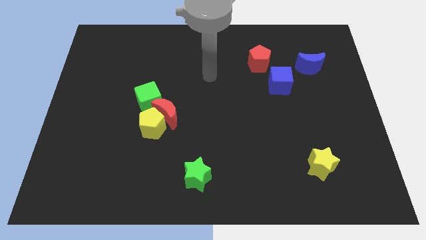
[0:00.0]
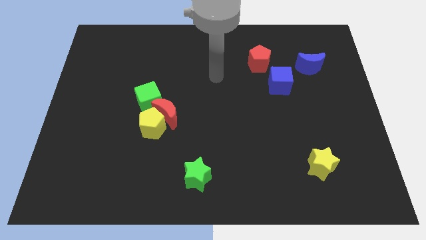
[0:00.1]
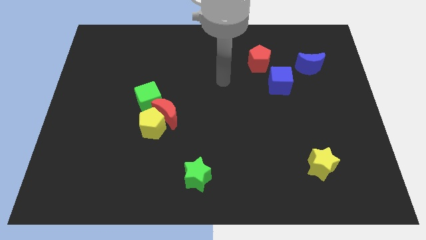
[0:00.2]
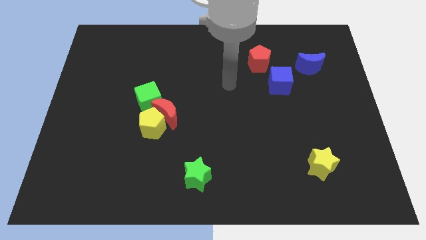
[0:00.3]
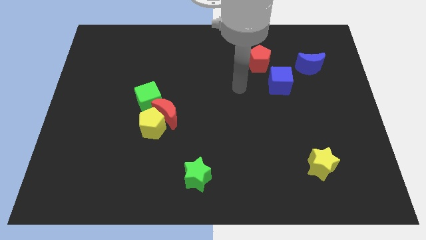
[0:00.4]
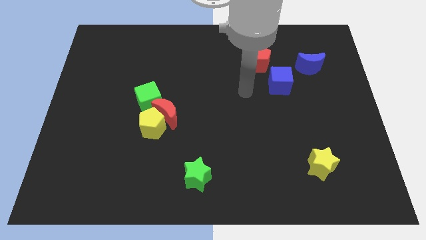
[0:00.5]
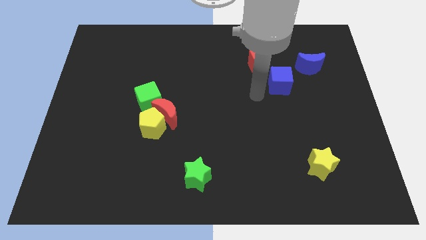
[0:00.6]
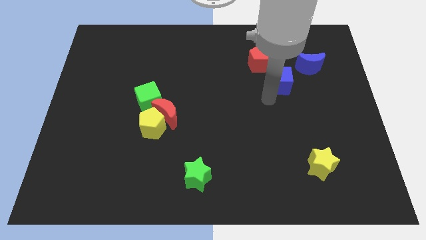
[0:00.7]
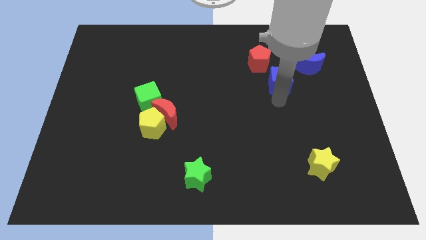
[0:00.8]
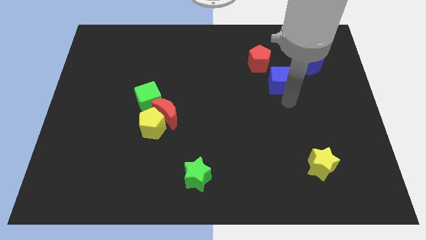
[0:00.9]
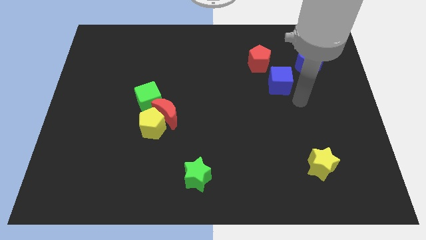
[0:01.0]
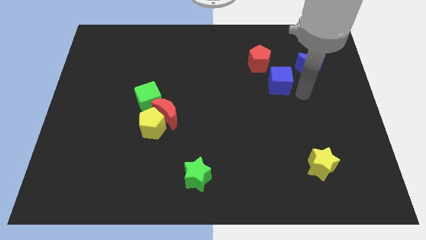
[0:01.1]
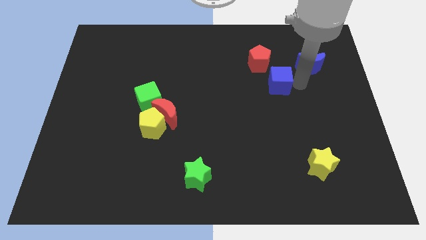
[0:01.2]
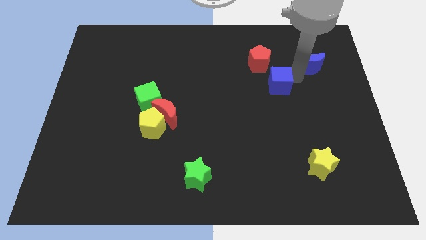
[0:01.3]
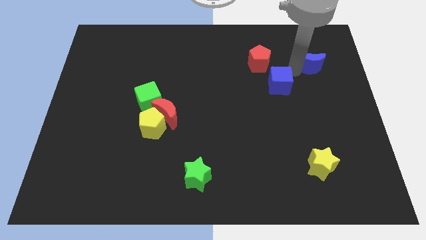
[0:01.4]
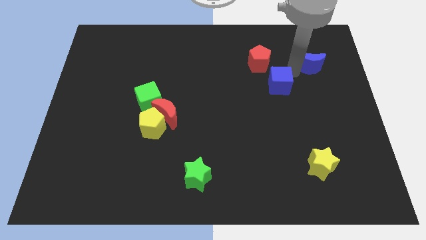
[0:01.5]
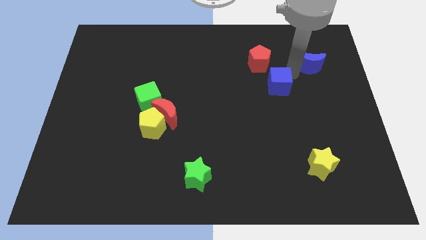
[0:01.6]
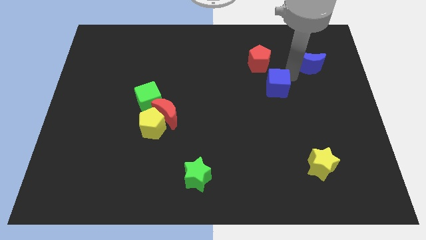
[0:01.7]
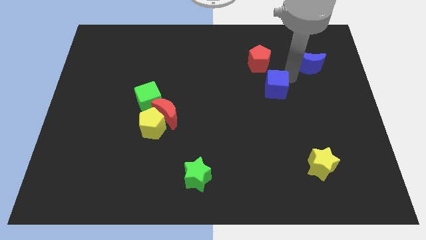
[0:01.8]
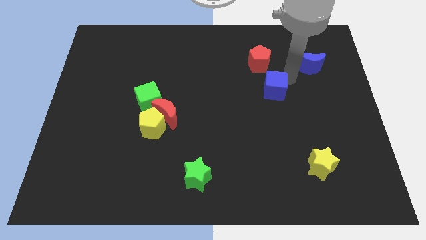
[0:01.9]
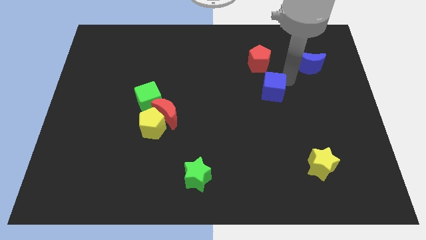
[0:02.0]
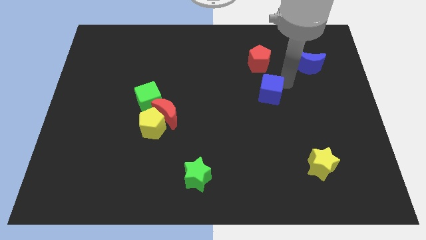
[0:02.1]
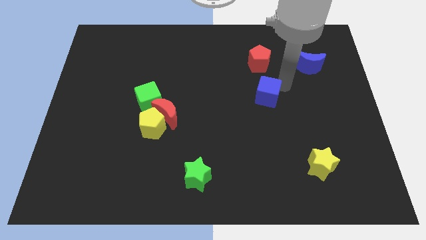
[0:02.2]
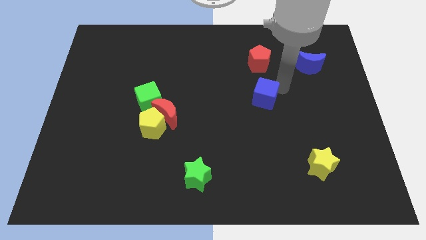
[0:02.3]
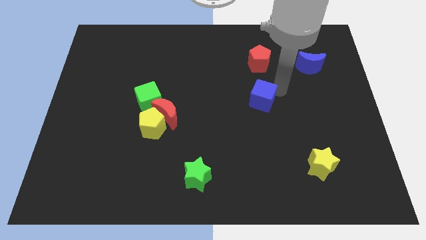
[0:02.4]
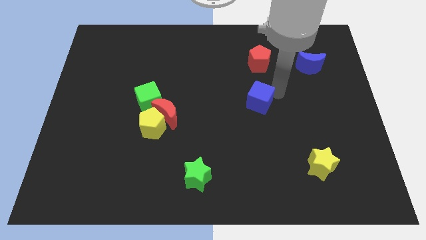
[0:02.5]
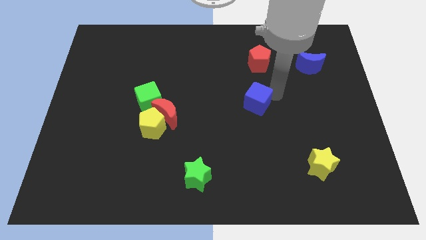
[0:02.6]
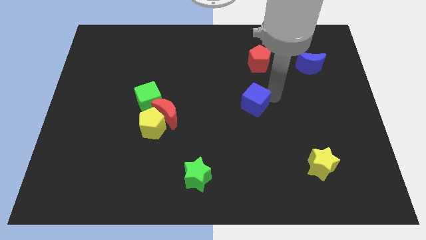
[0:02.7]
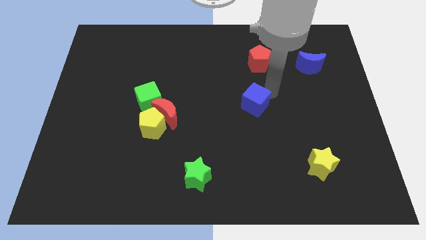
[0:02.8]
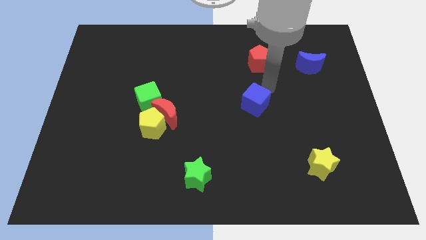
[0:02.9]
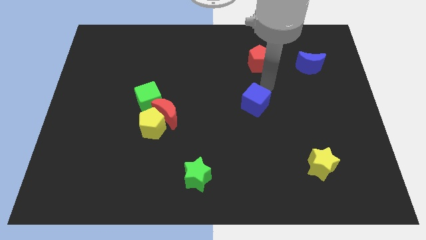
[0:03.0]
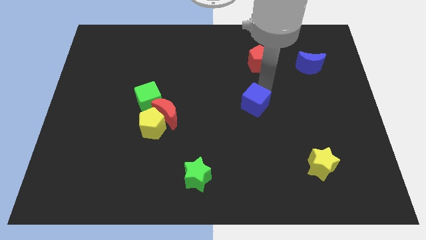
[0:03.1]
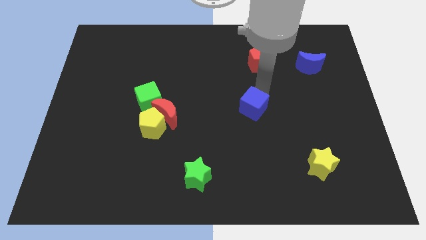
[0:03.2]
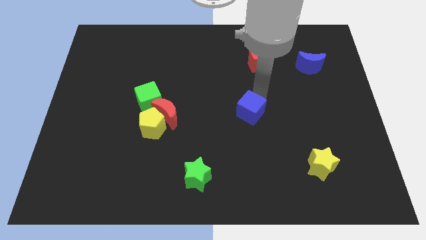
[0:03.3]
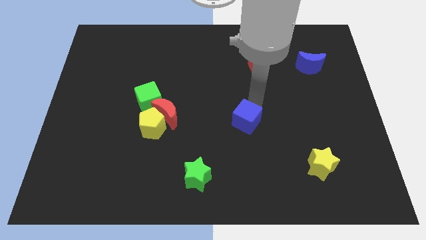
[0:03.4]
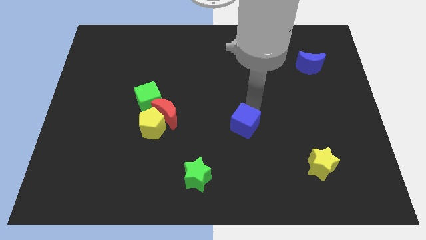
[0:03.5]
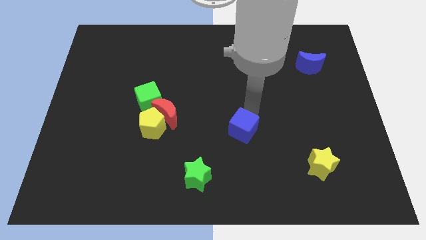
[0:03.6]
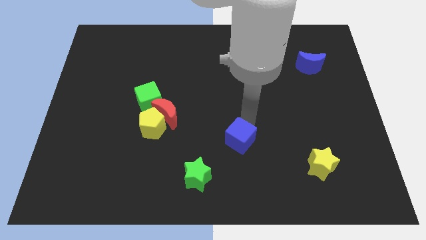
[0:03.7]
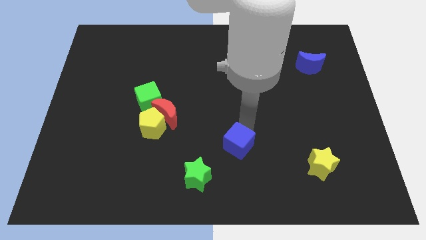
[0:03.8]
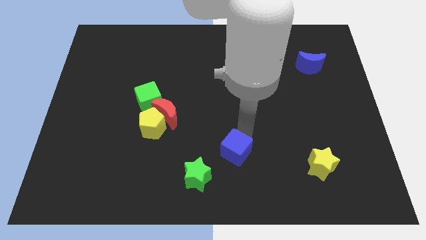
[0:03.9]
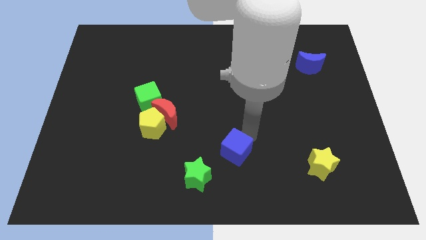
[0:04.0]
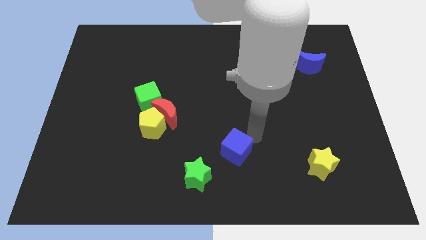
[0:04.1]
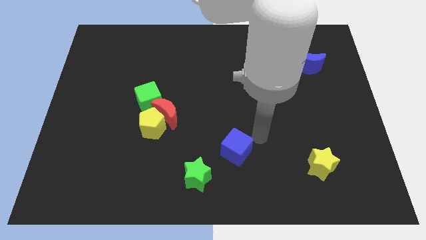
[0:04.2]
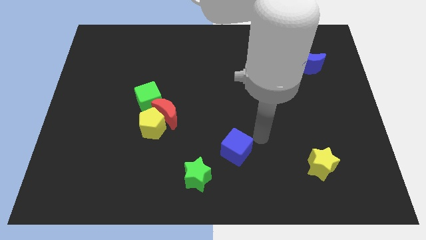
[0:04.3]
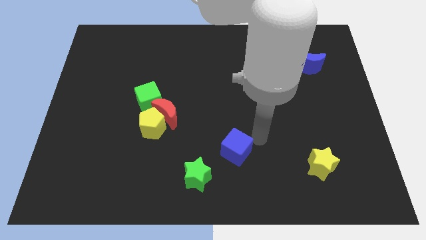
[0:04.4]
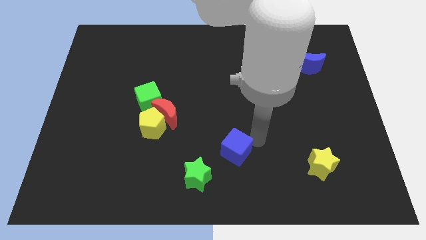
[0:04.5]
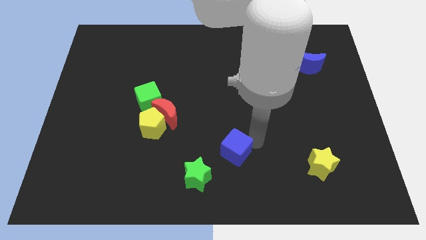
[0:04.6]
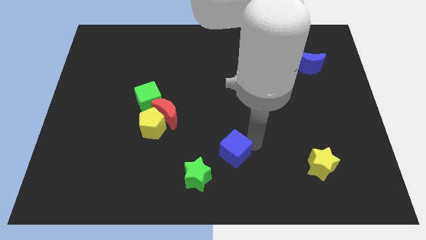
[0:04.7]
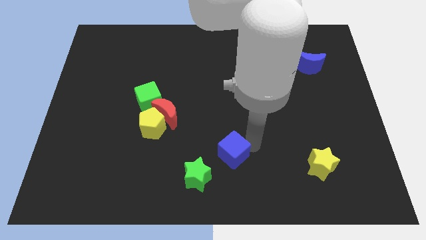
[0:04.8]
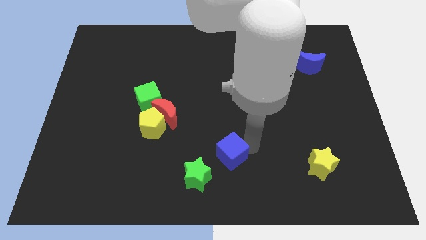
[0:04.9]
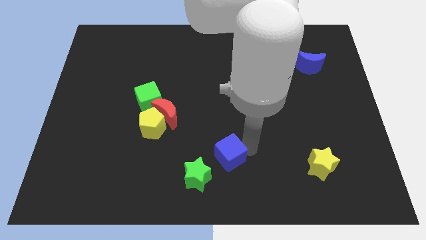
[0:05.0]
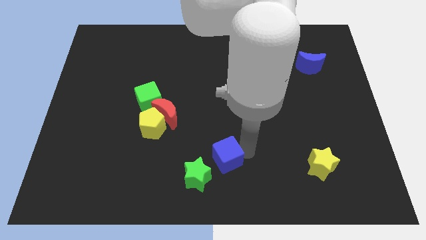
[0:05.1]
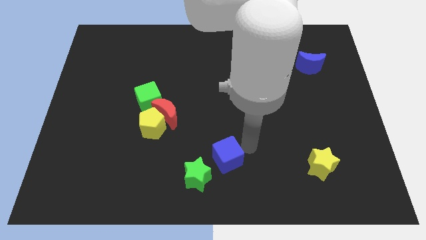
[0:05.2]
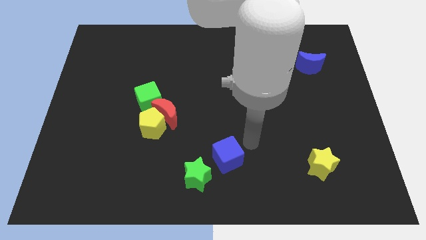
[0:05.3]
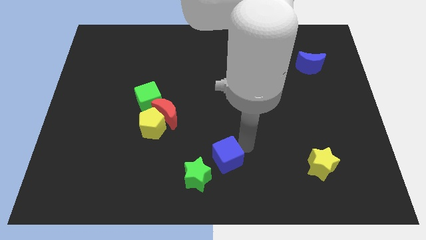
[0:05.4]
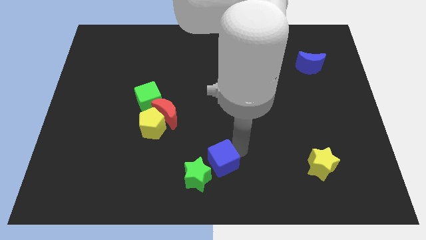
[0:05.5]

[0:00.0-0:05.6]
push the blue cube to the green star

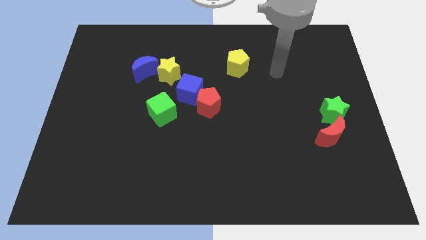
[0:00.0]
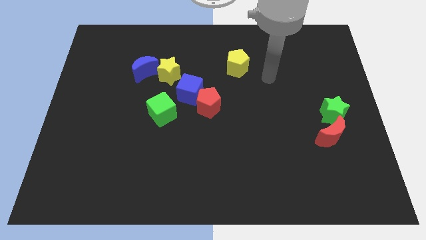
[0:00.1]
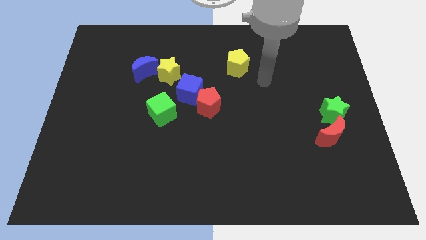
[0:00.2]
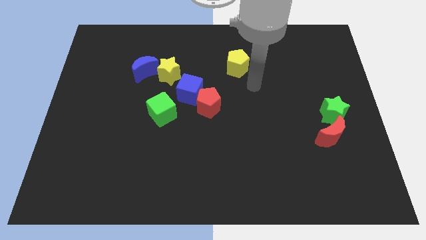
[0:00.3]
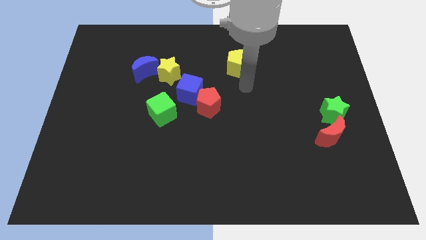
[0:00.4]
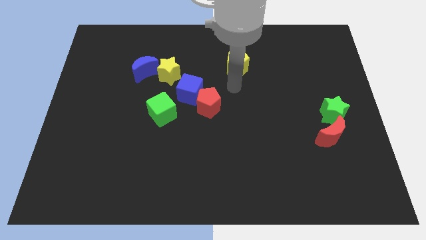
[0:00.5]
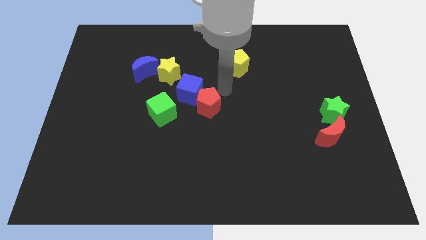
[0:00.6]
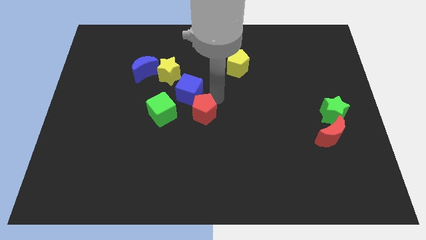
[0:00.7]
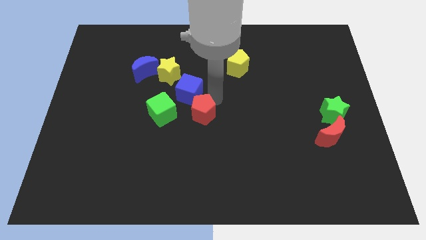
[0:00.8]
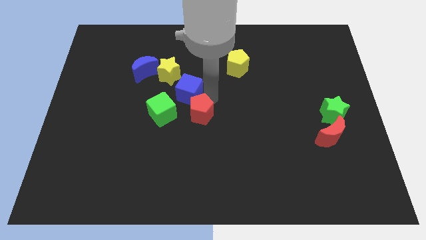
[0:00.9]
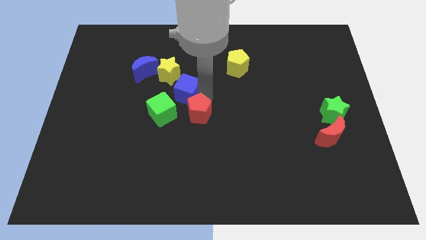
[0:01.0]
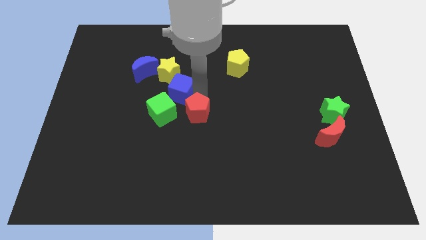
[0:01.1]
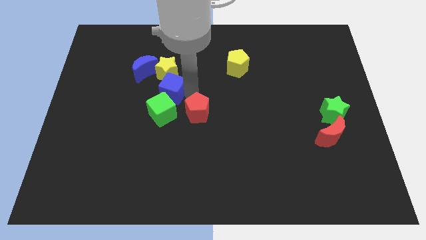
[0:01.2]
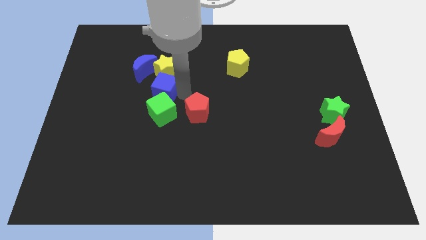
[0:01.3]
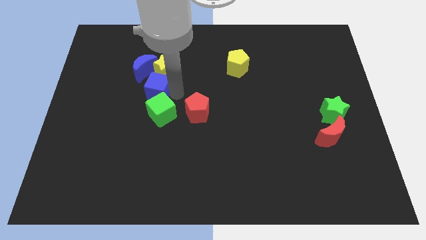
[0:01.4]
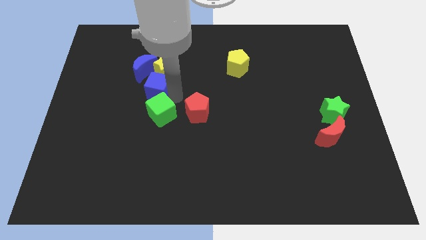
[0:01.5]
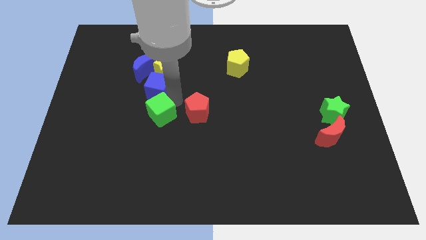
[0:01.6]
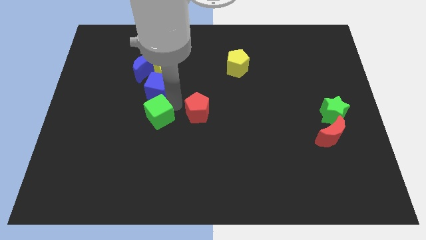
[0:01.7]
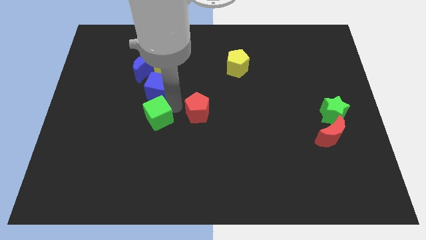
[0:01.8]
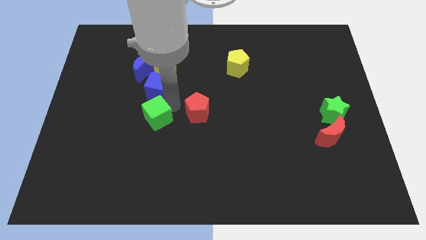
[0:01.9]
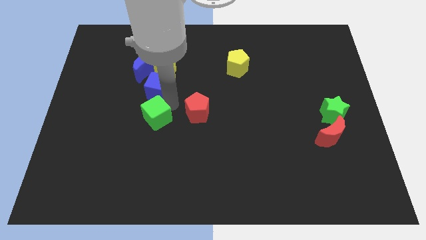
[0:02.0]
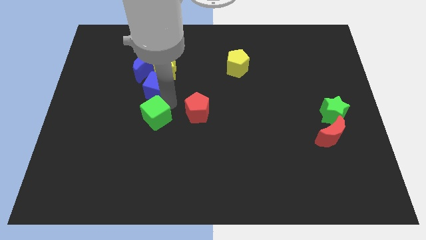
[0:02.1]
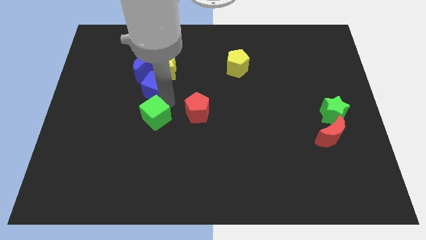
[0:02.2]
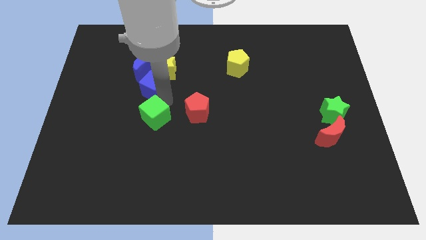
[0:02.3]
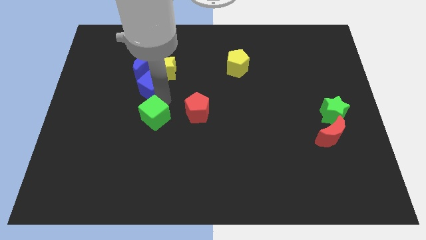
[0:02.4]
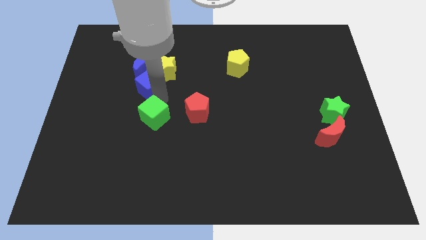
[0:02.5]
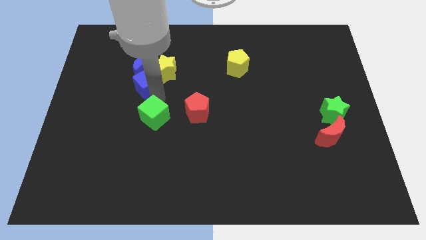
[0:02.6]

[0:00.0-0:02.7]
slide the blue cube to the blue moon
